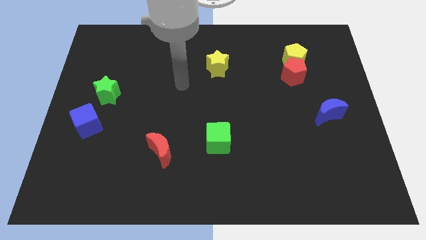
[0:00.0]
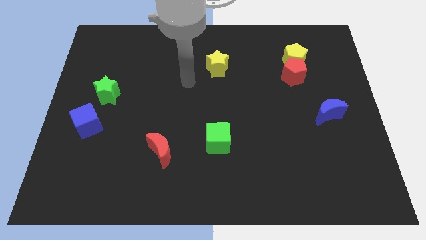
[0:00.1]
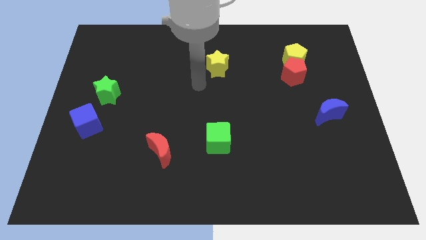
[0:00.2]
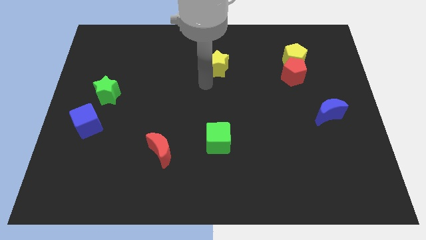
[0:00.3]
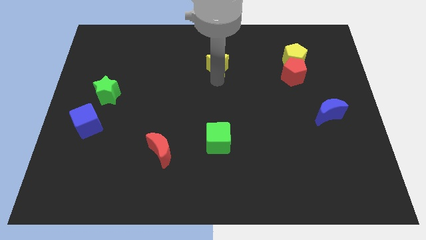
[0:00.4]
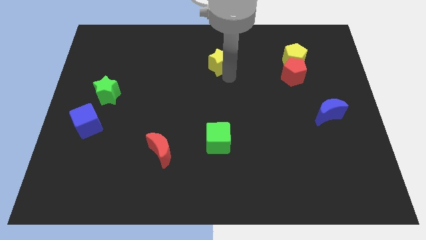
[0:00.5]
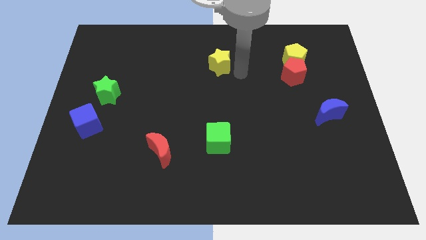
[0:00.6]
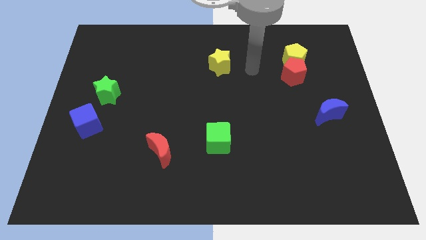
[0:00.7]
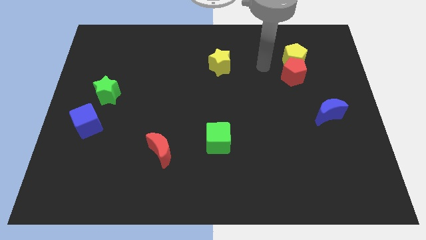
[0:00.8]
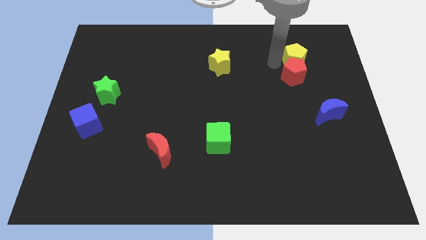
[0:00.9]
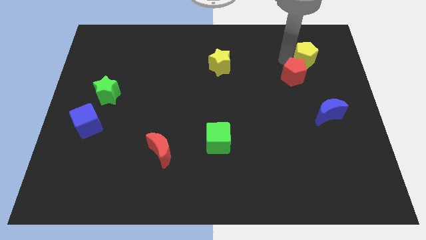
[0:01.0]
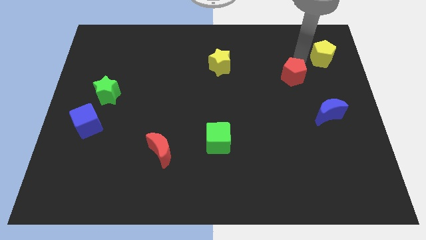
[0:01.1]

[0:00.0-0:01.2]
move the red pentagon away from the yellow pentagon

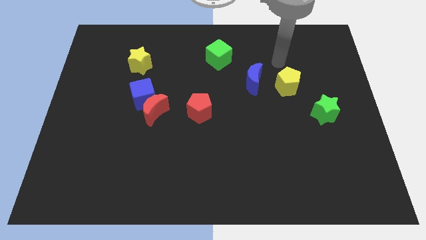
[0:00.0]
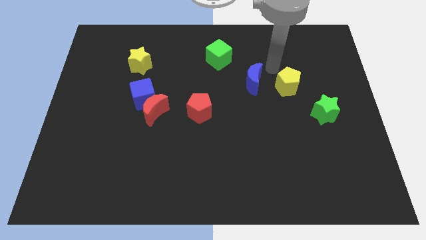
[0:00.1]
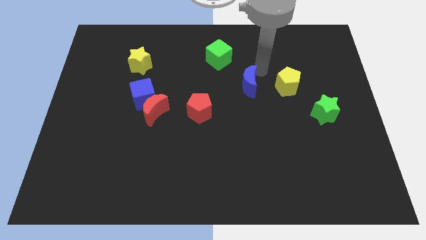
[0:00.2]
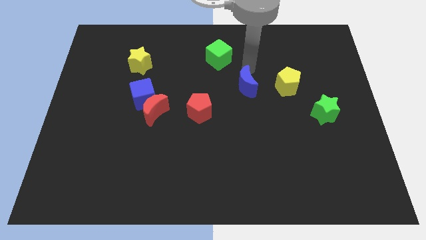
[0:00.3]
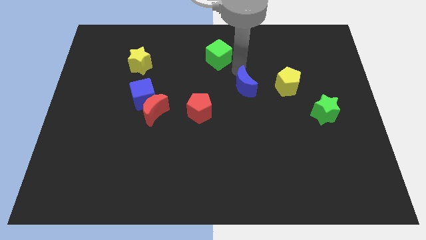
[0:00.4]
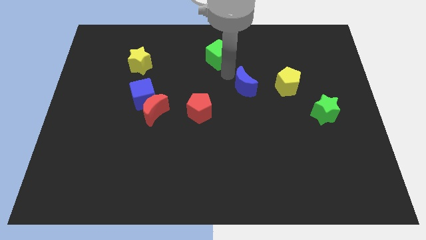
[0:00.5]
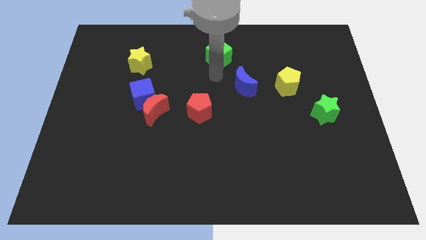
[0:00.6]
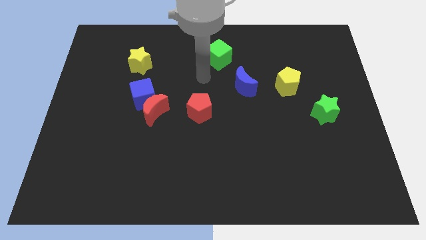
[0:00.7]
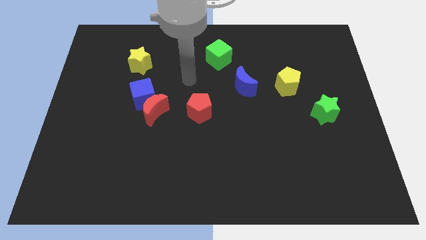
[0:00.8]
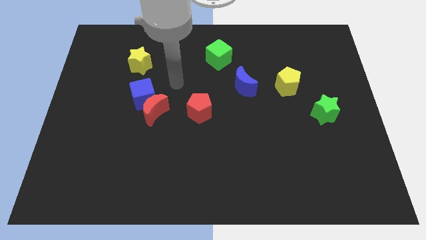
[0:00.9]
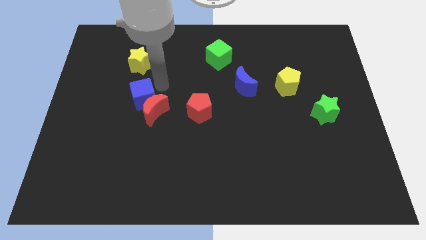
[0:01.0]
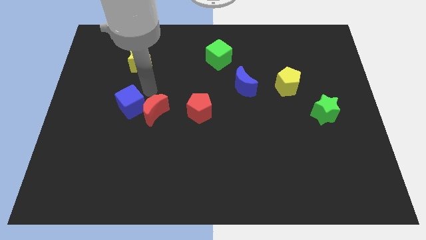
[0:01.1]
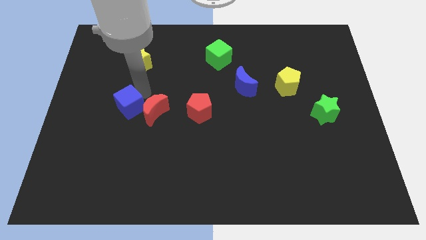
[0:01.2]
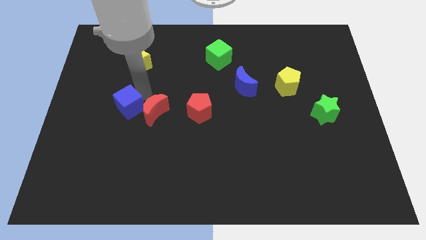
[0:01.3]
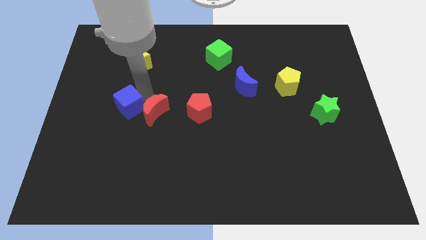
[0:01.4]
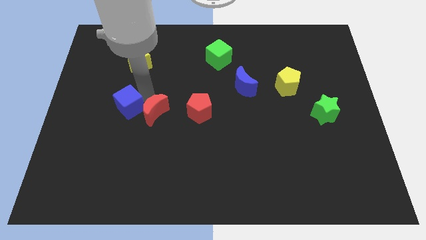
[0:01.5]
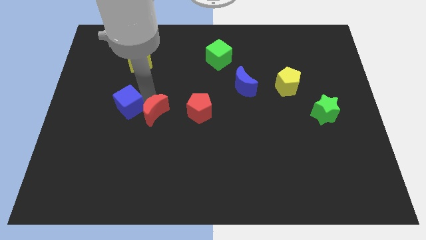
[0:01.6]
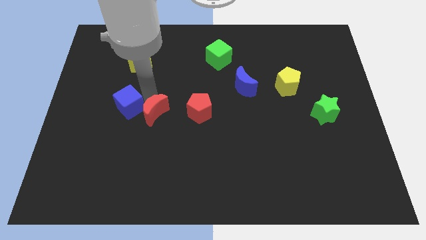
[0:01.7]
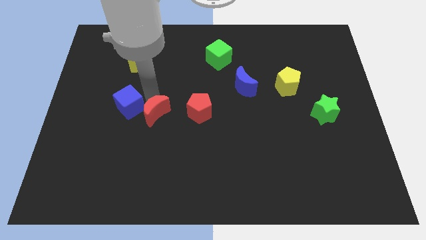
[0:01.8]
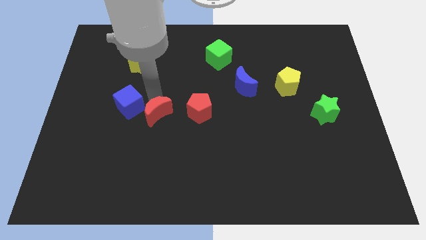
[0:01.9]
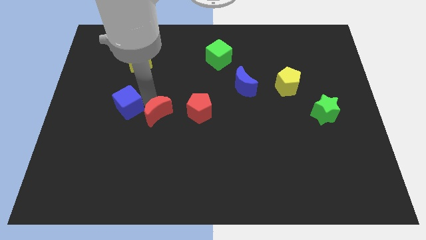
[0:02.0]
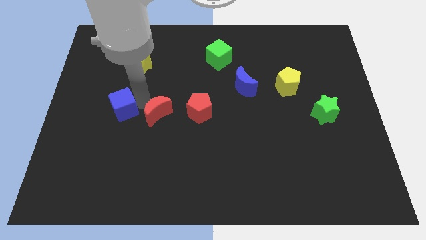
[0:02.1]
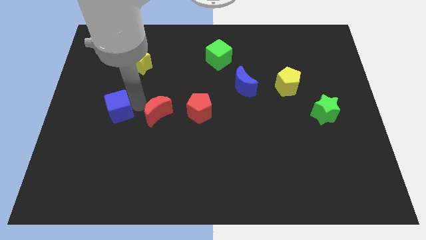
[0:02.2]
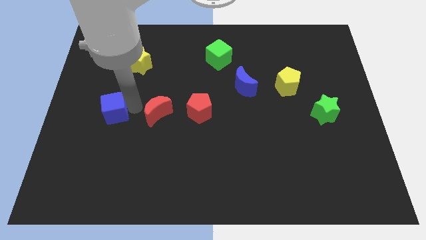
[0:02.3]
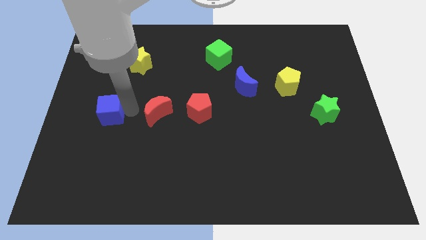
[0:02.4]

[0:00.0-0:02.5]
pull the red moon apart from the blue cube

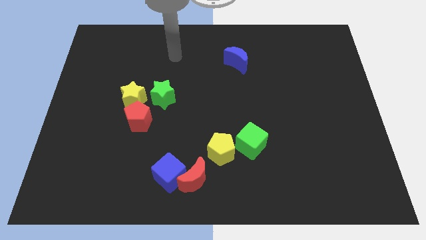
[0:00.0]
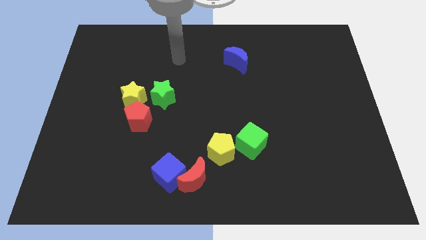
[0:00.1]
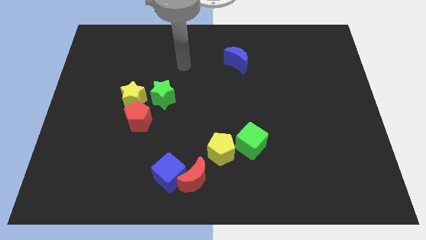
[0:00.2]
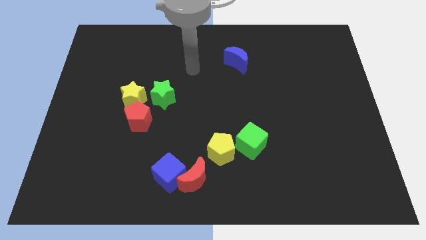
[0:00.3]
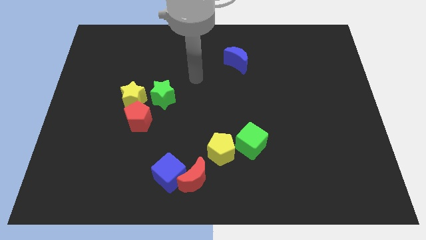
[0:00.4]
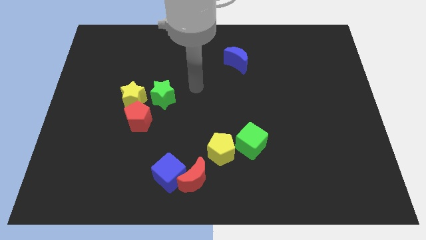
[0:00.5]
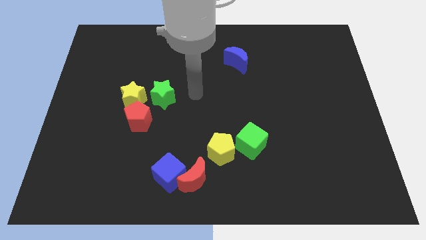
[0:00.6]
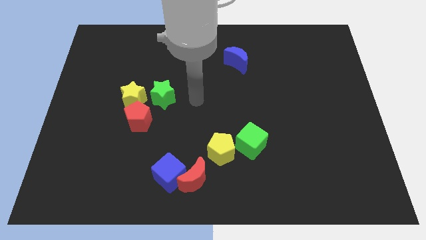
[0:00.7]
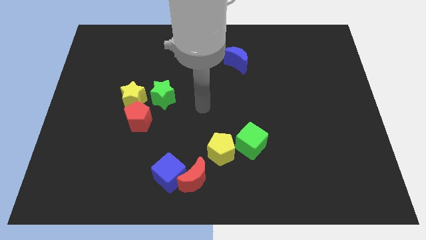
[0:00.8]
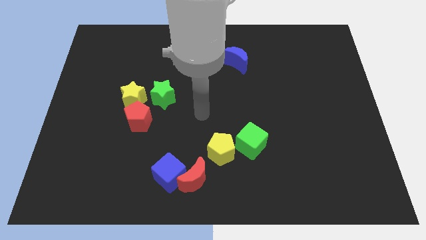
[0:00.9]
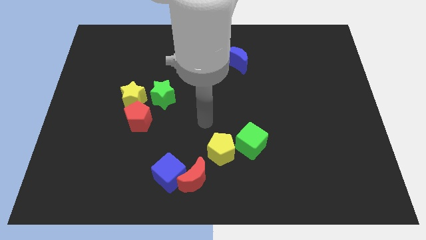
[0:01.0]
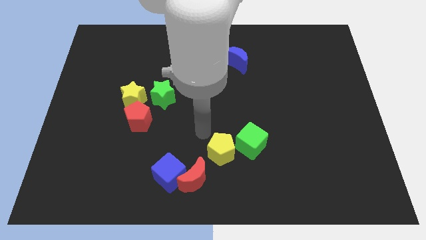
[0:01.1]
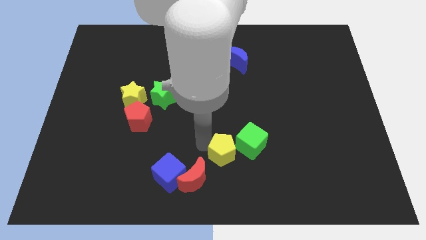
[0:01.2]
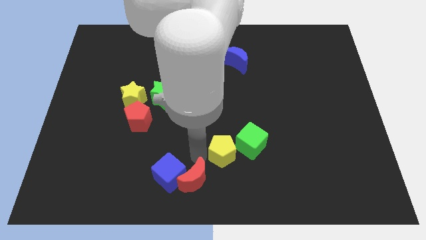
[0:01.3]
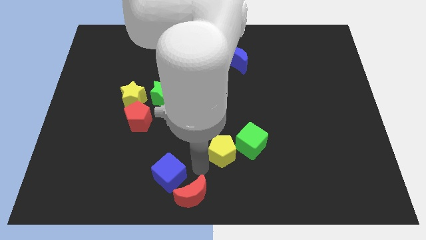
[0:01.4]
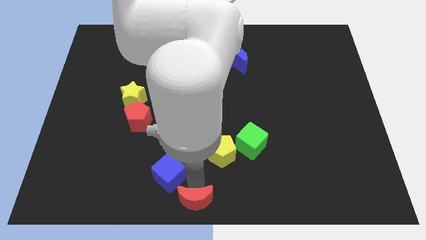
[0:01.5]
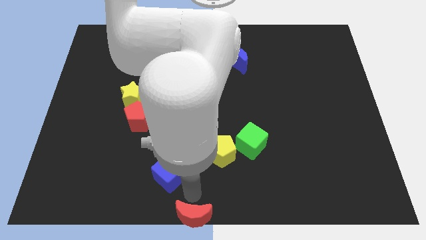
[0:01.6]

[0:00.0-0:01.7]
move the blue cube away from the red moon

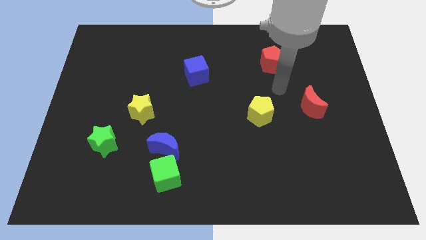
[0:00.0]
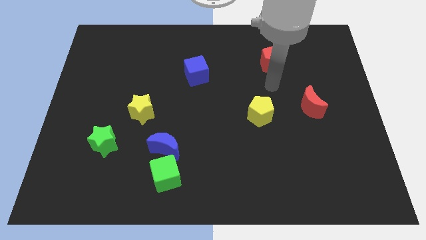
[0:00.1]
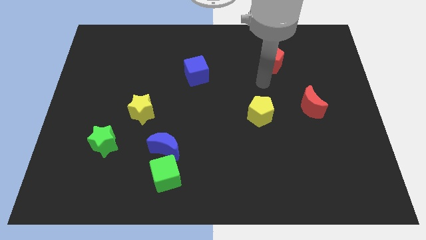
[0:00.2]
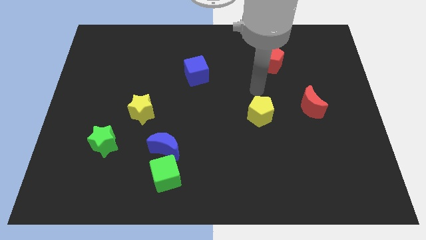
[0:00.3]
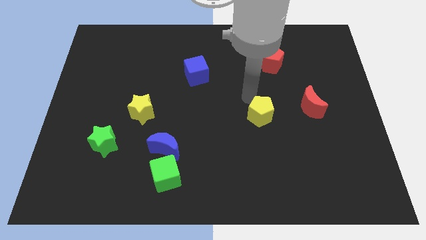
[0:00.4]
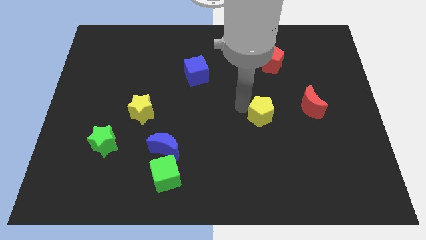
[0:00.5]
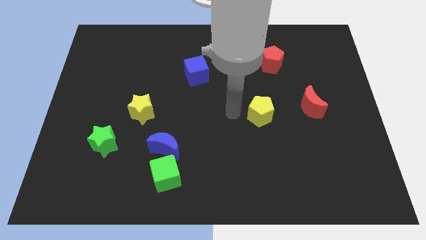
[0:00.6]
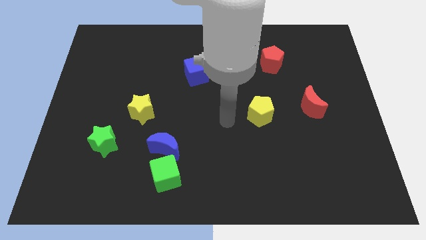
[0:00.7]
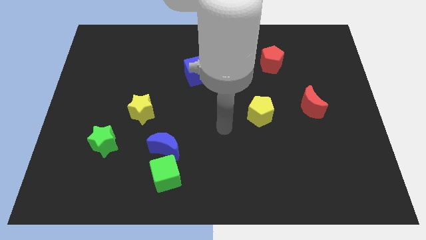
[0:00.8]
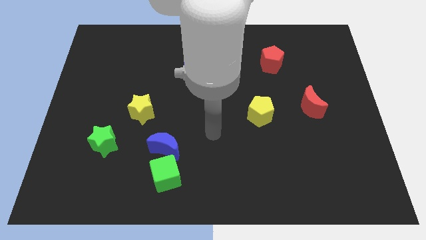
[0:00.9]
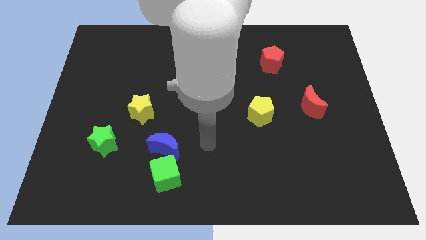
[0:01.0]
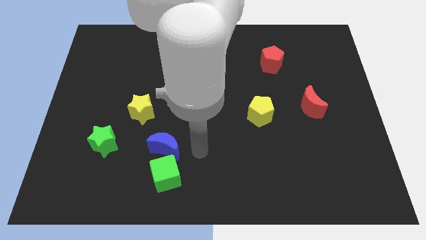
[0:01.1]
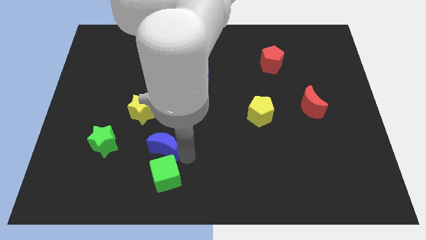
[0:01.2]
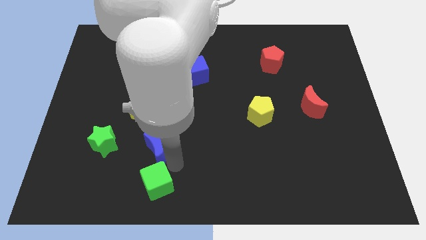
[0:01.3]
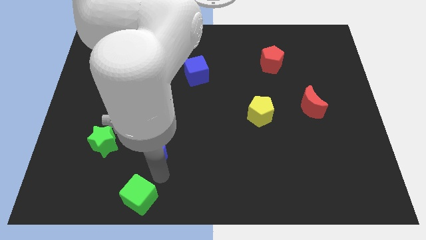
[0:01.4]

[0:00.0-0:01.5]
separate the blue moon from the green cube

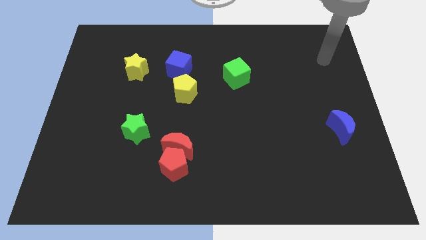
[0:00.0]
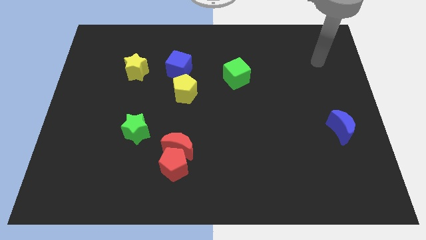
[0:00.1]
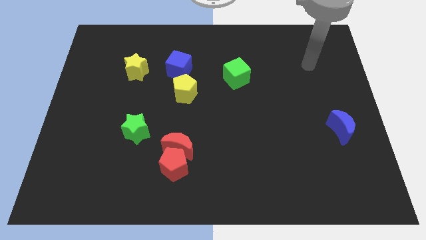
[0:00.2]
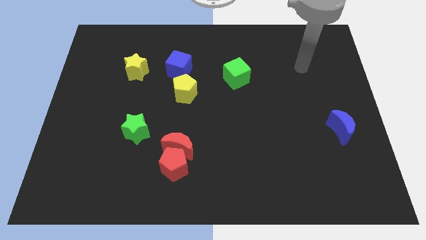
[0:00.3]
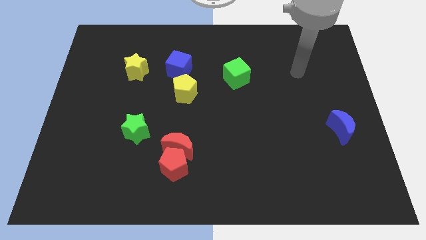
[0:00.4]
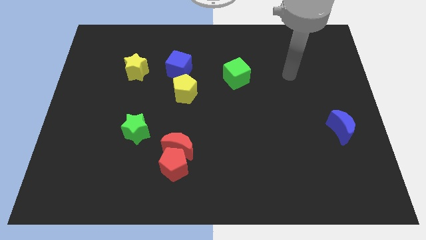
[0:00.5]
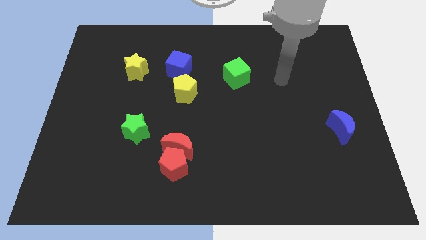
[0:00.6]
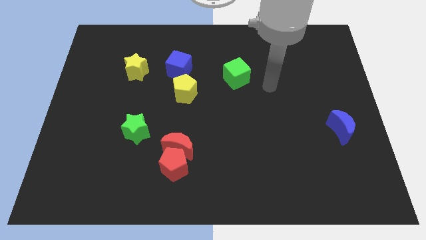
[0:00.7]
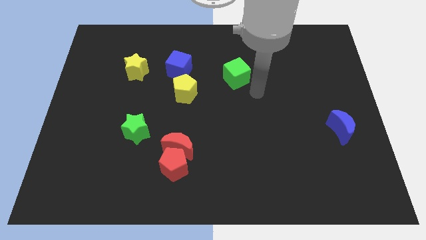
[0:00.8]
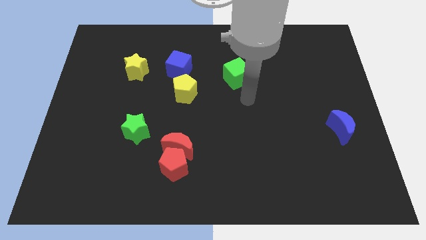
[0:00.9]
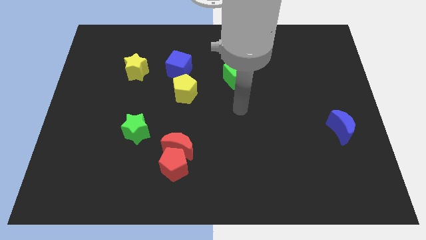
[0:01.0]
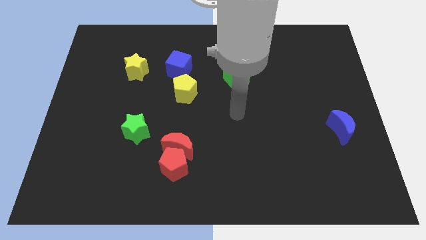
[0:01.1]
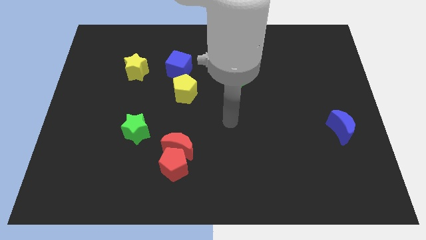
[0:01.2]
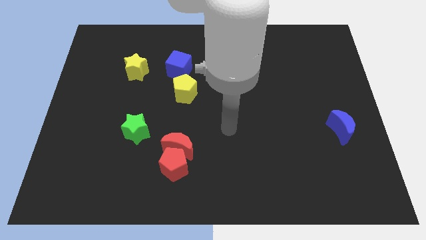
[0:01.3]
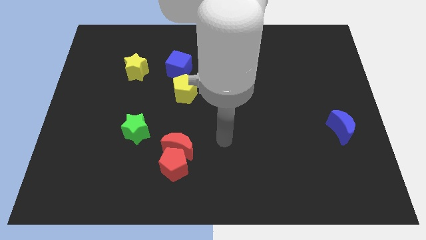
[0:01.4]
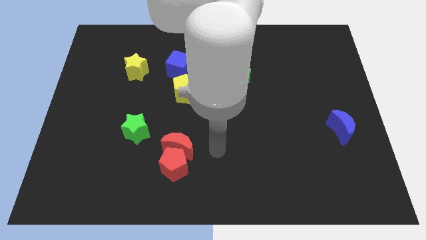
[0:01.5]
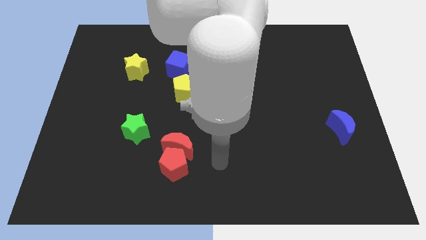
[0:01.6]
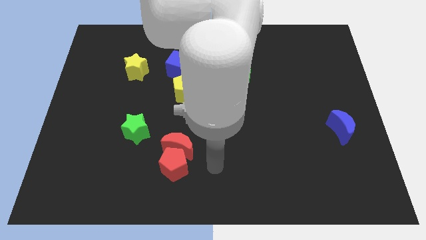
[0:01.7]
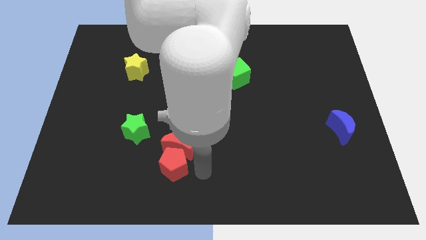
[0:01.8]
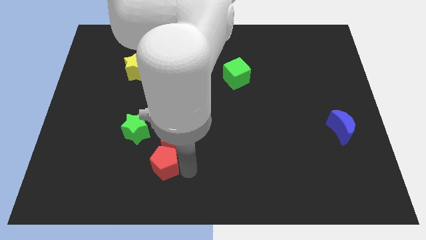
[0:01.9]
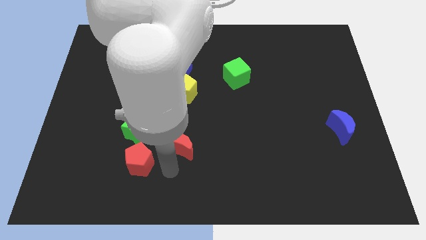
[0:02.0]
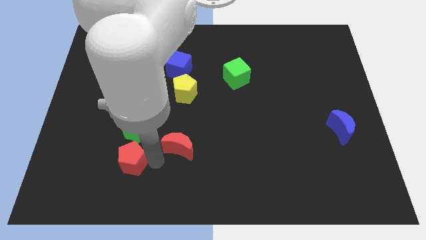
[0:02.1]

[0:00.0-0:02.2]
separate the red moon from the red pentagon

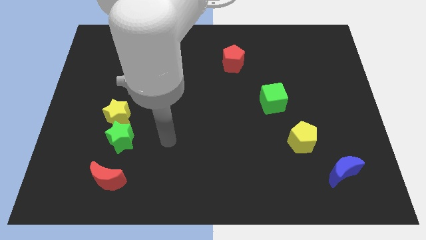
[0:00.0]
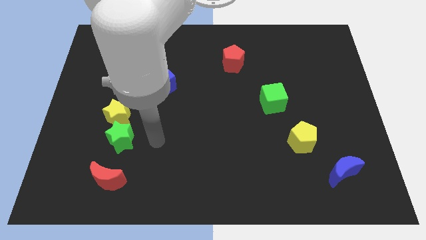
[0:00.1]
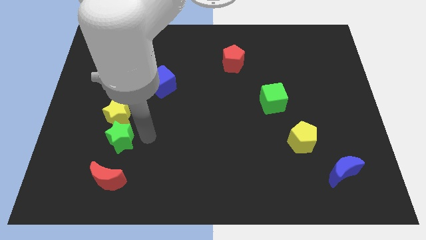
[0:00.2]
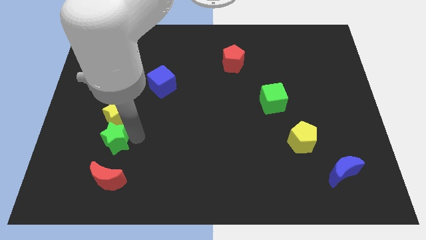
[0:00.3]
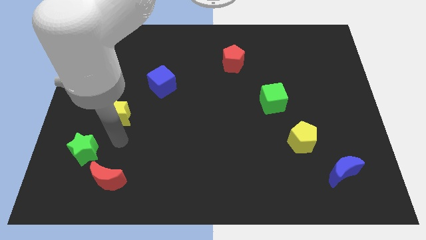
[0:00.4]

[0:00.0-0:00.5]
pull the yellow star apart from the green star
